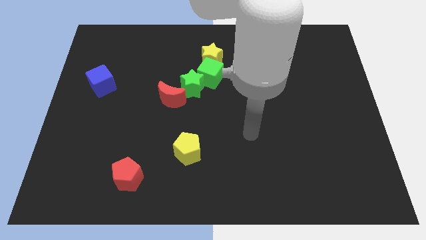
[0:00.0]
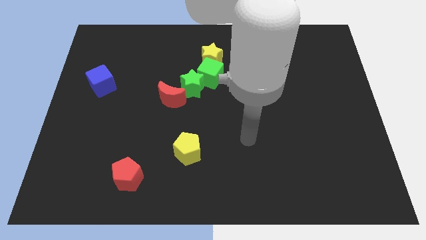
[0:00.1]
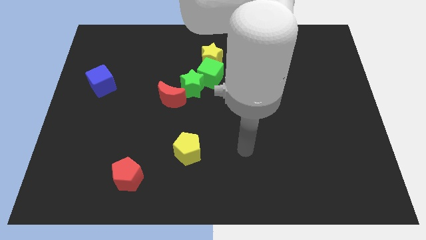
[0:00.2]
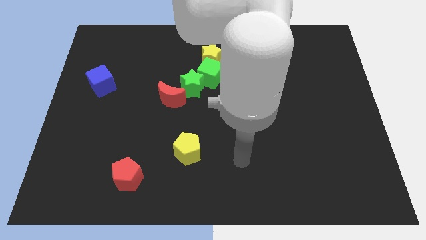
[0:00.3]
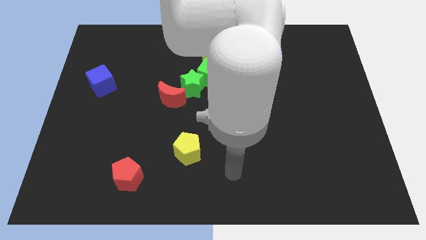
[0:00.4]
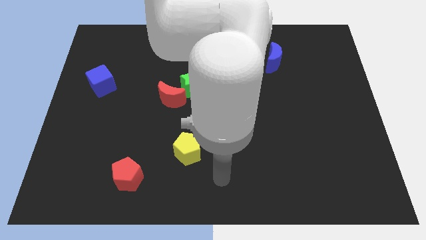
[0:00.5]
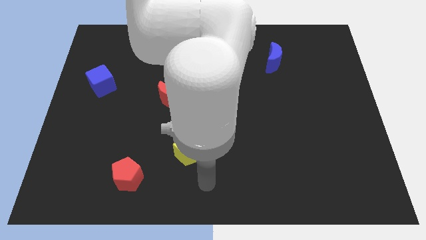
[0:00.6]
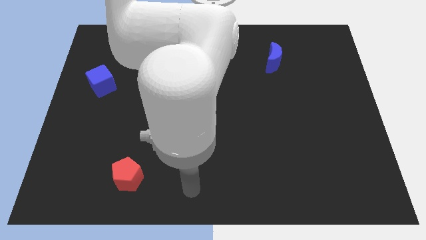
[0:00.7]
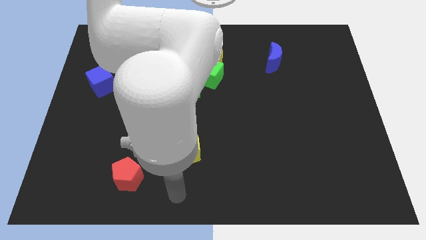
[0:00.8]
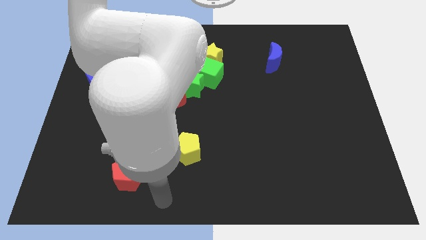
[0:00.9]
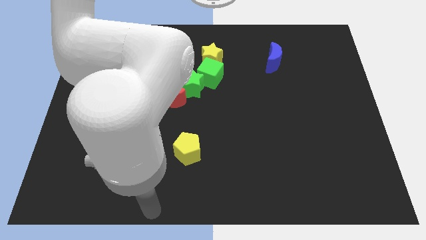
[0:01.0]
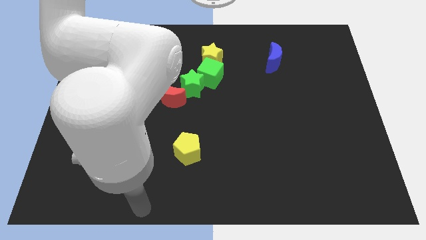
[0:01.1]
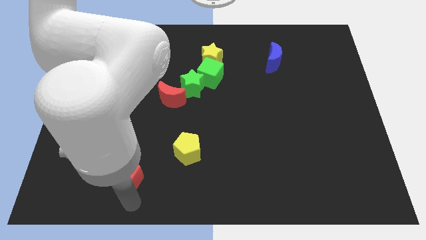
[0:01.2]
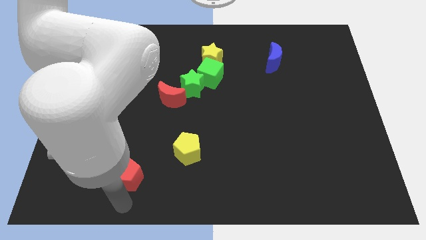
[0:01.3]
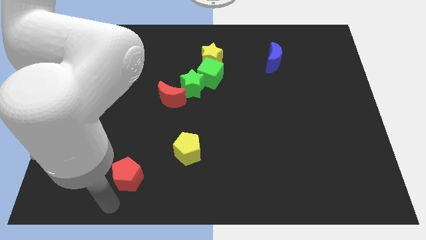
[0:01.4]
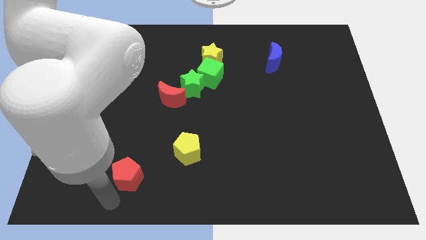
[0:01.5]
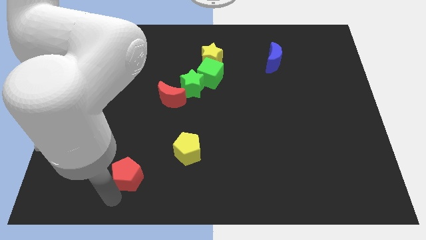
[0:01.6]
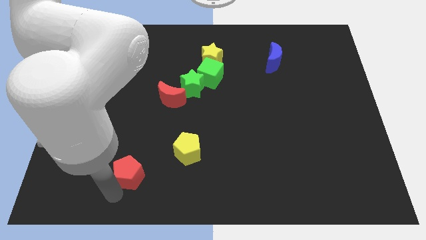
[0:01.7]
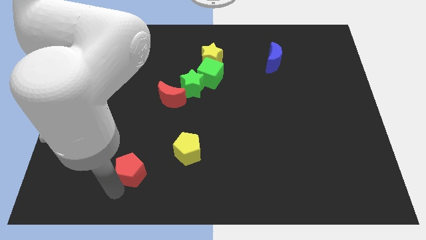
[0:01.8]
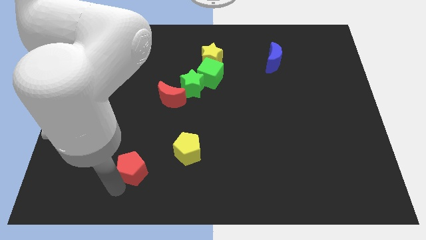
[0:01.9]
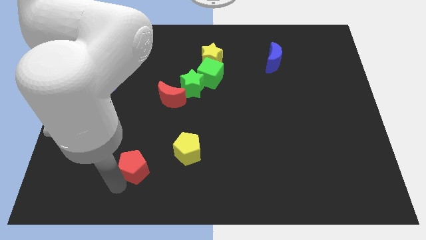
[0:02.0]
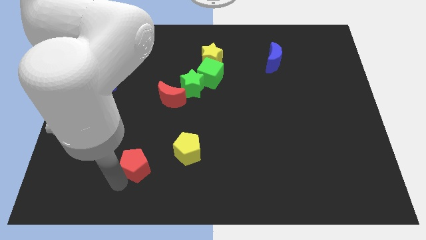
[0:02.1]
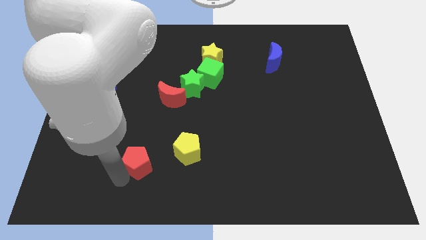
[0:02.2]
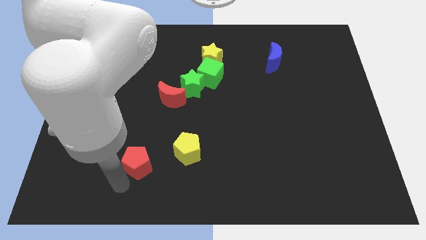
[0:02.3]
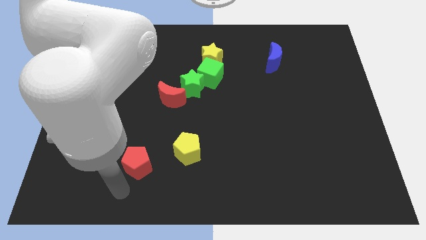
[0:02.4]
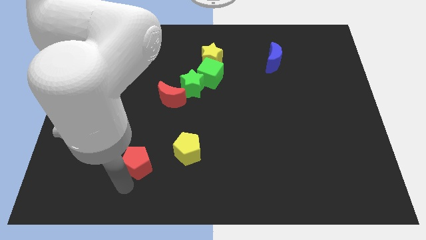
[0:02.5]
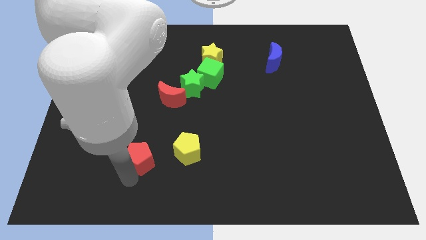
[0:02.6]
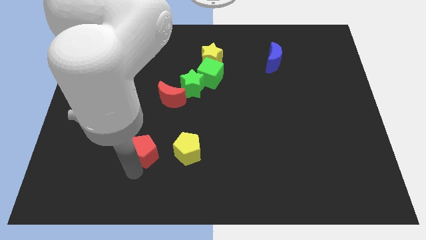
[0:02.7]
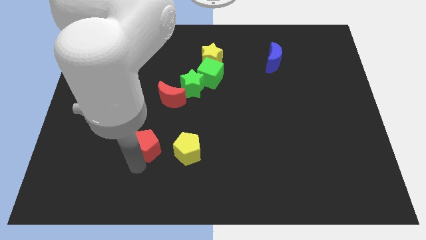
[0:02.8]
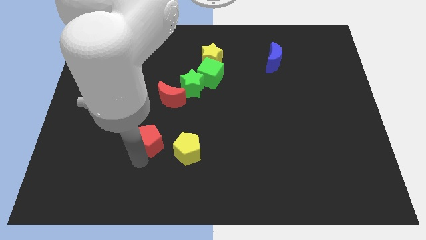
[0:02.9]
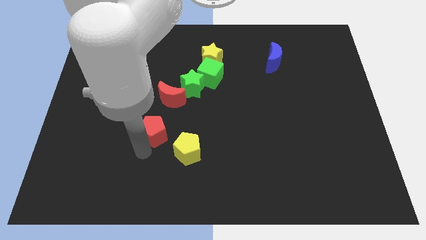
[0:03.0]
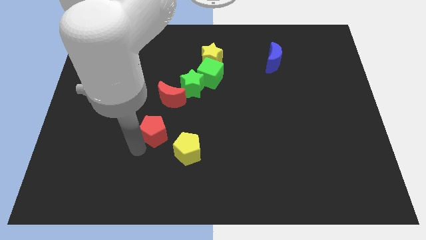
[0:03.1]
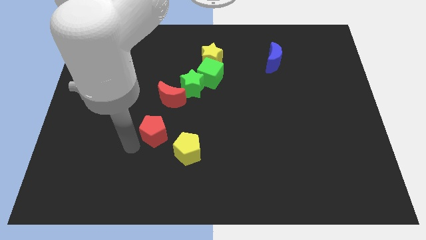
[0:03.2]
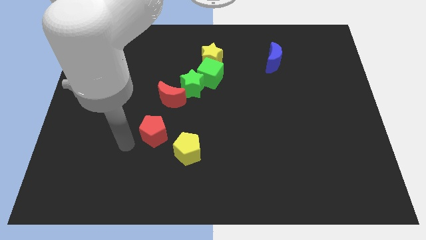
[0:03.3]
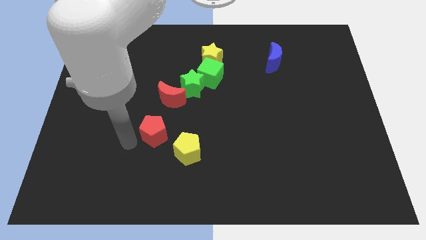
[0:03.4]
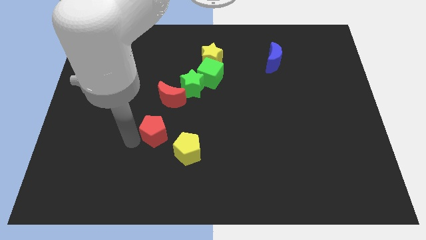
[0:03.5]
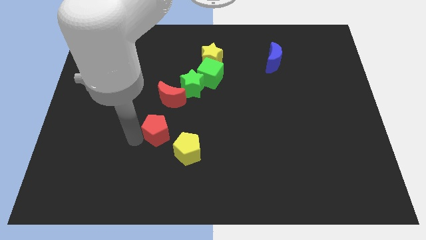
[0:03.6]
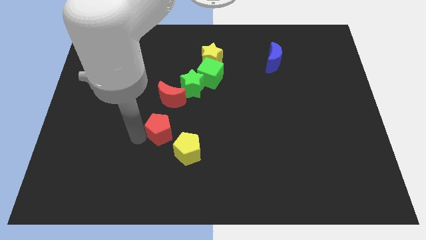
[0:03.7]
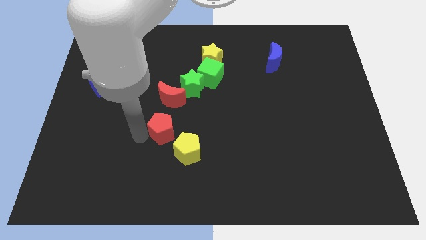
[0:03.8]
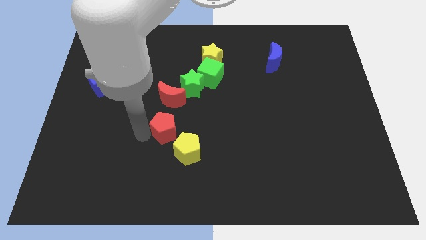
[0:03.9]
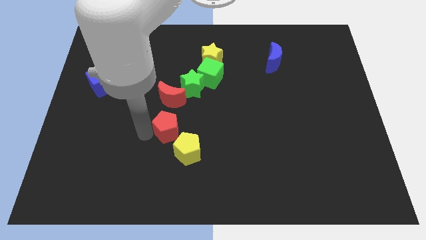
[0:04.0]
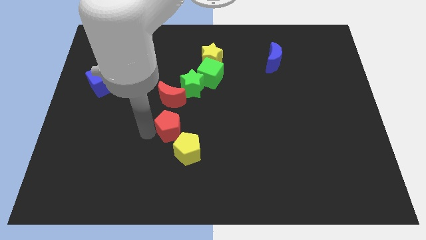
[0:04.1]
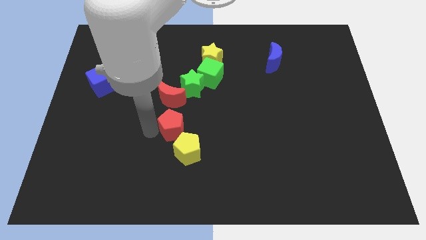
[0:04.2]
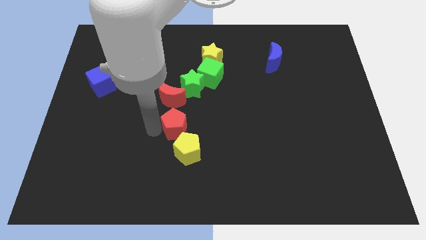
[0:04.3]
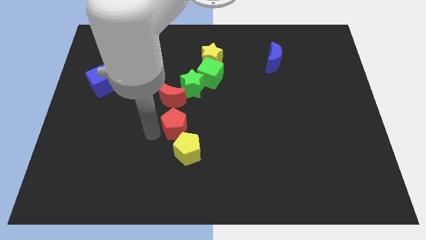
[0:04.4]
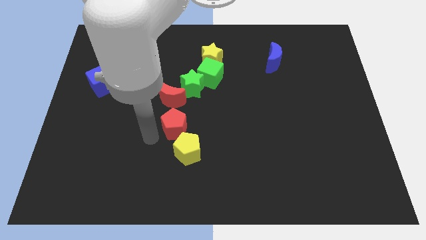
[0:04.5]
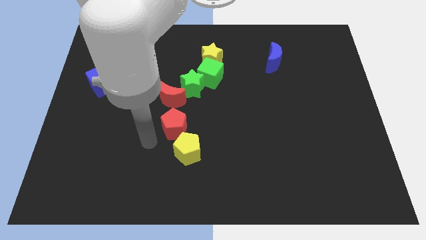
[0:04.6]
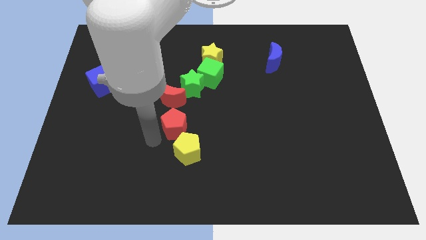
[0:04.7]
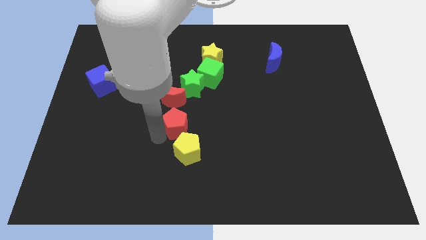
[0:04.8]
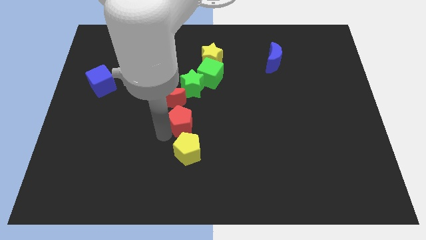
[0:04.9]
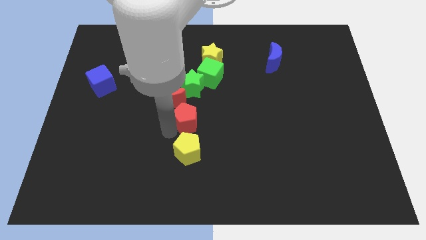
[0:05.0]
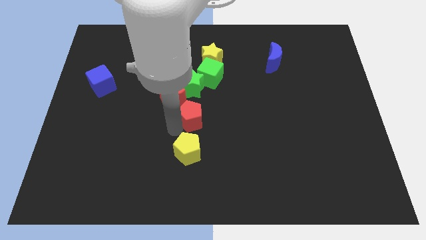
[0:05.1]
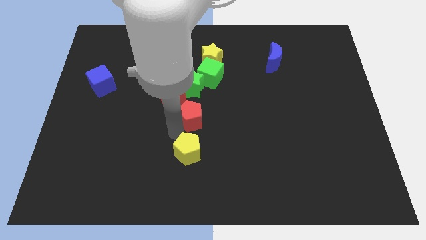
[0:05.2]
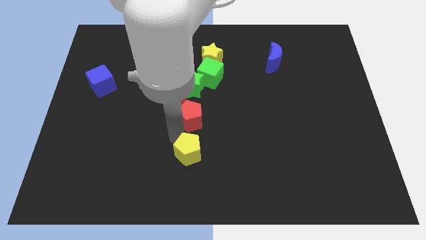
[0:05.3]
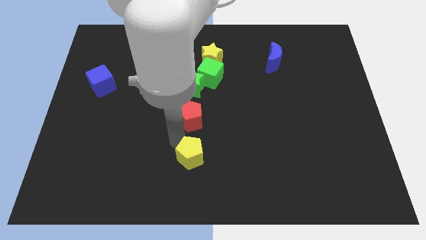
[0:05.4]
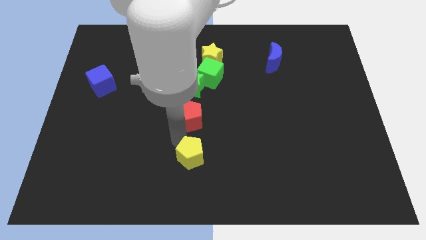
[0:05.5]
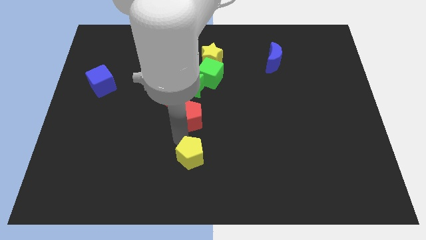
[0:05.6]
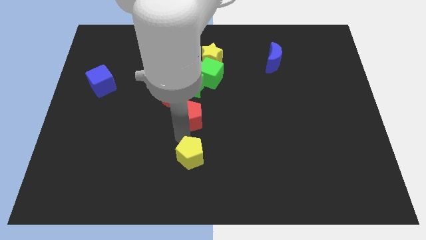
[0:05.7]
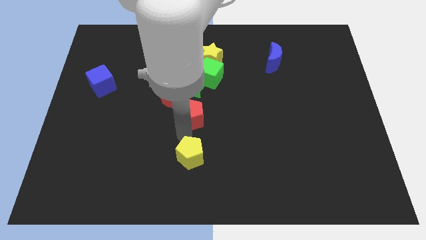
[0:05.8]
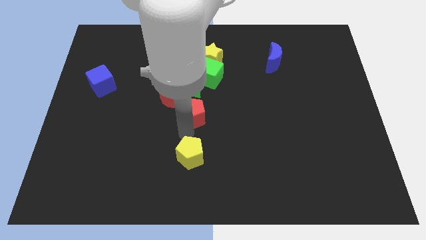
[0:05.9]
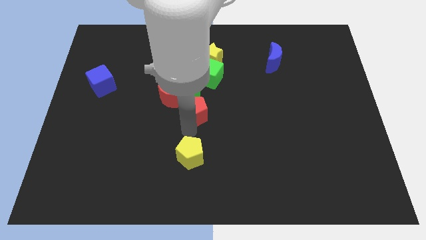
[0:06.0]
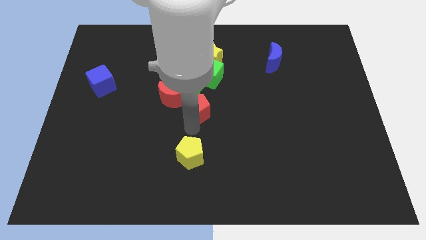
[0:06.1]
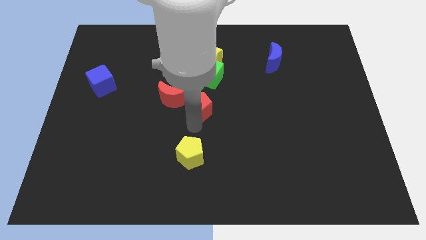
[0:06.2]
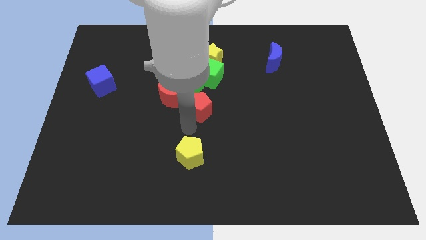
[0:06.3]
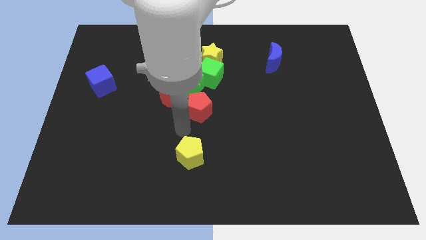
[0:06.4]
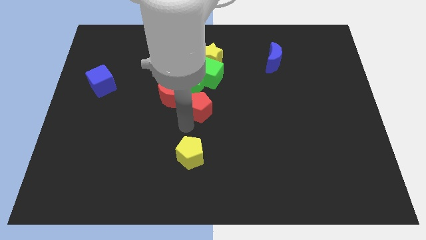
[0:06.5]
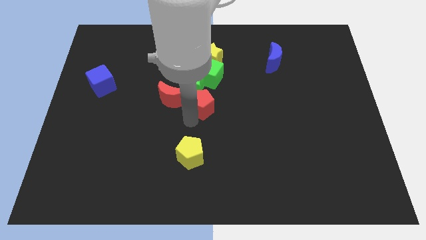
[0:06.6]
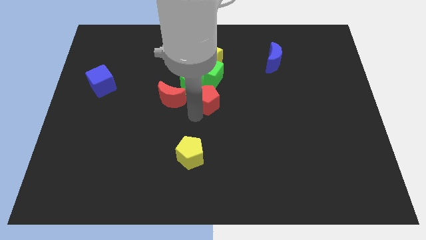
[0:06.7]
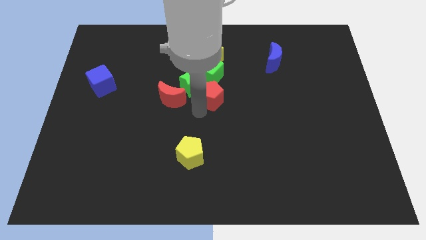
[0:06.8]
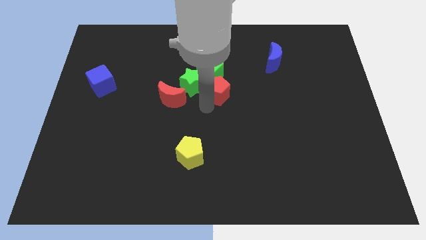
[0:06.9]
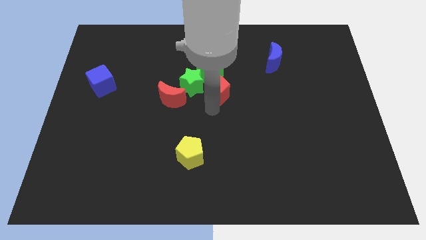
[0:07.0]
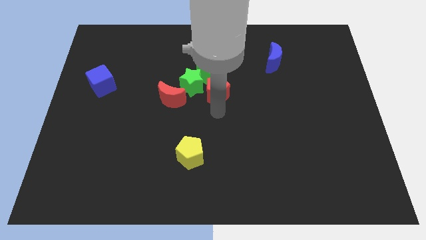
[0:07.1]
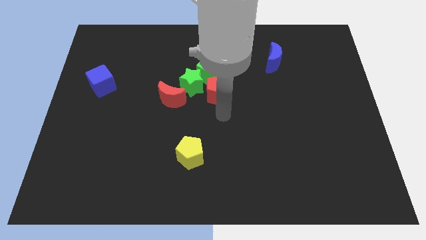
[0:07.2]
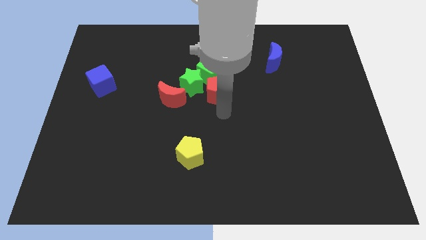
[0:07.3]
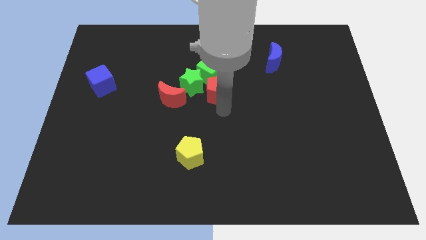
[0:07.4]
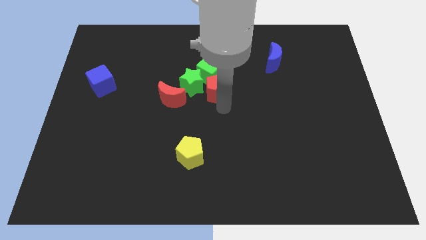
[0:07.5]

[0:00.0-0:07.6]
put the red pentagon towards the green cube
